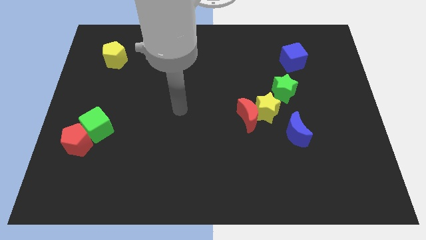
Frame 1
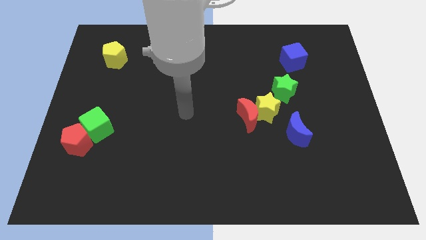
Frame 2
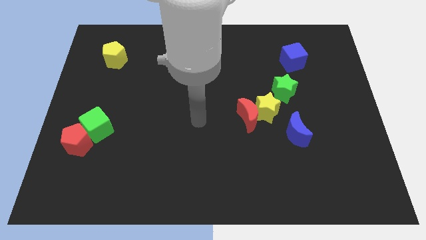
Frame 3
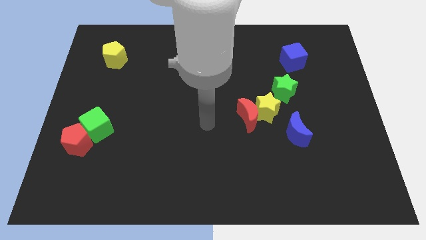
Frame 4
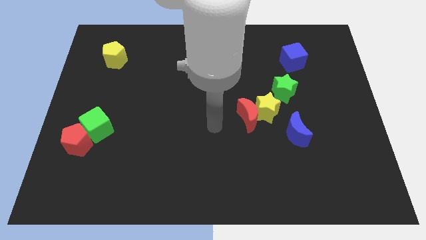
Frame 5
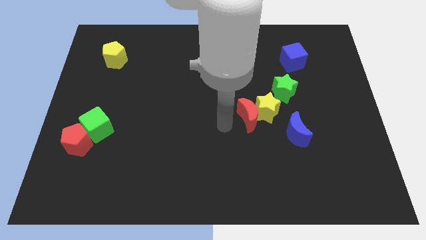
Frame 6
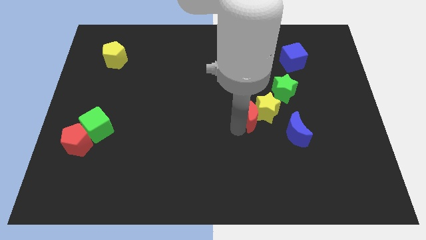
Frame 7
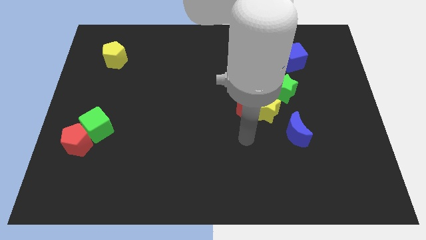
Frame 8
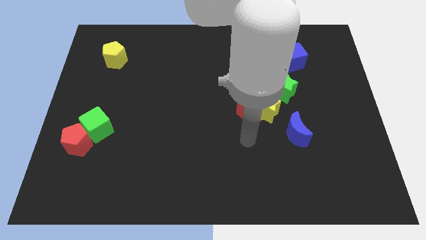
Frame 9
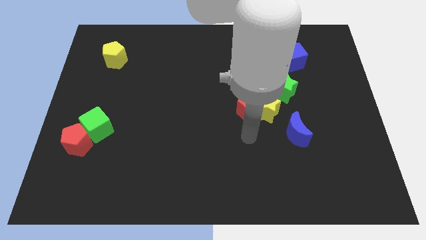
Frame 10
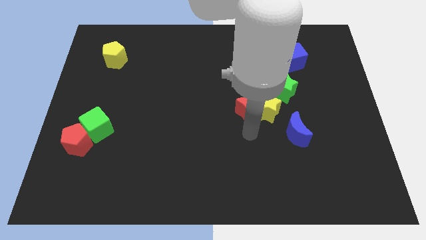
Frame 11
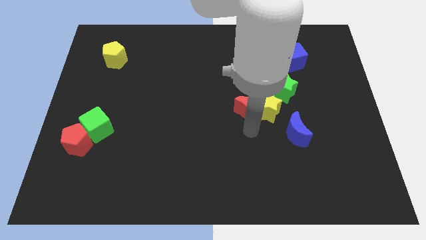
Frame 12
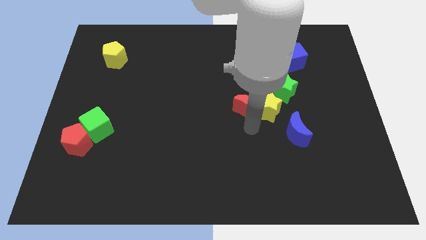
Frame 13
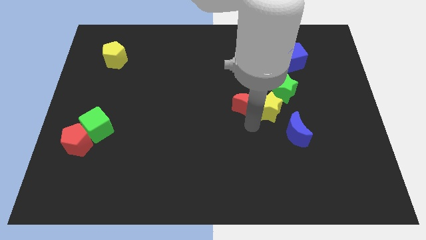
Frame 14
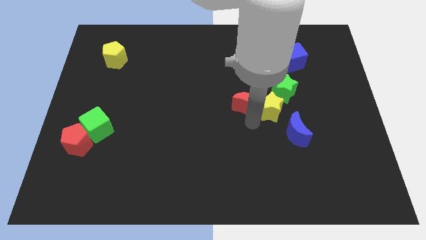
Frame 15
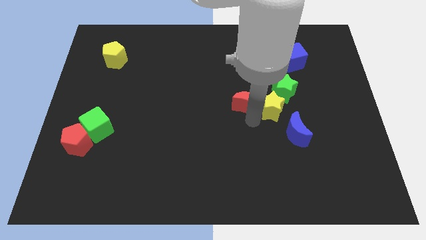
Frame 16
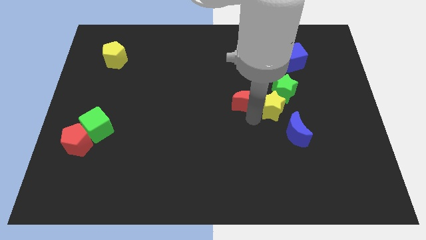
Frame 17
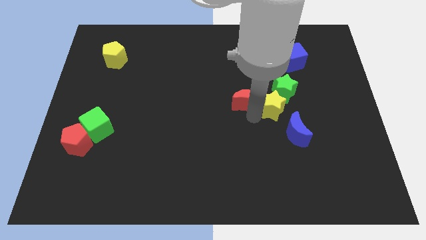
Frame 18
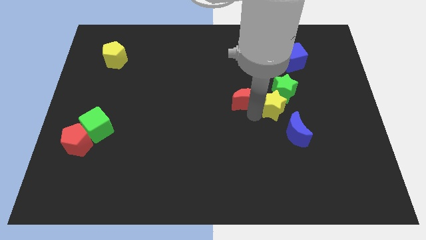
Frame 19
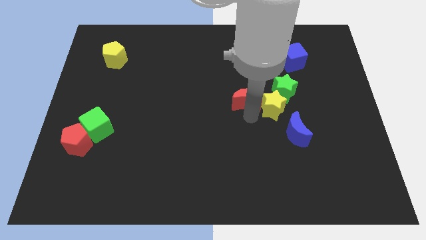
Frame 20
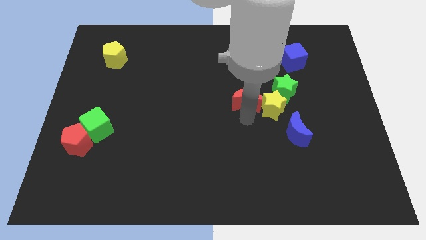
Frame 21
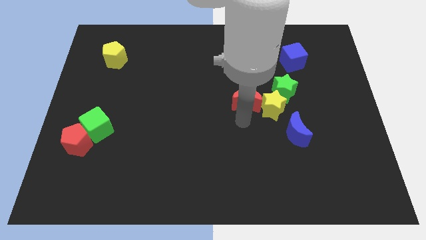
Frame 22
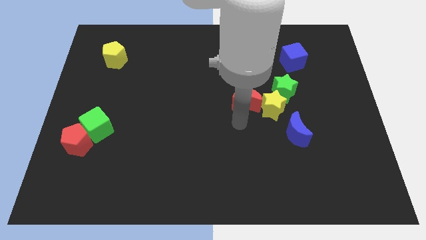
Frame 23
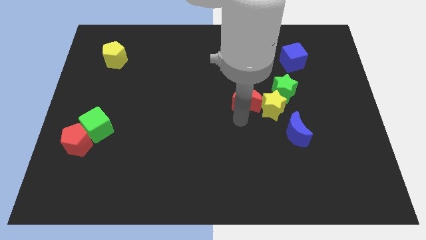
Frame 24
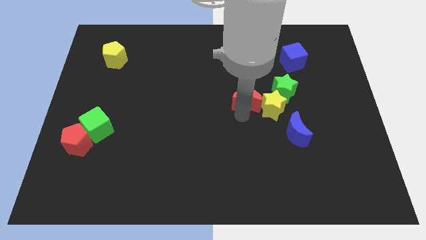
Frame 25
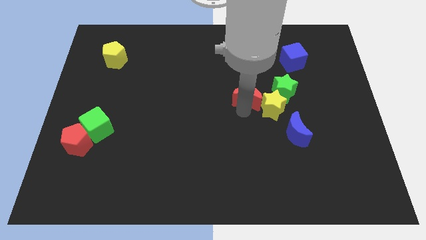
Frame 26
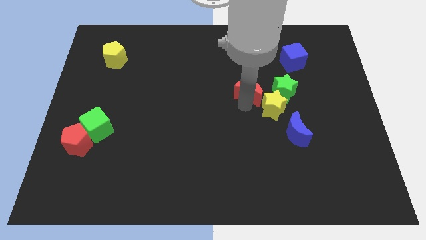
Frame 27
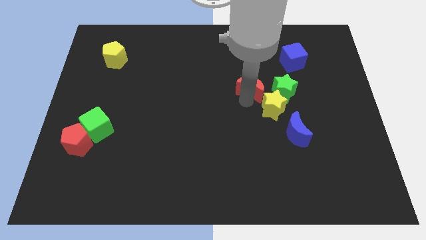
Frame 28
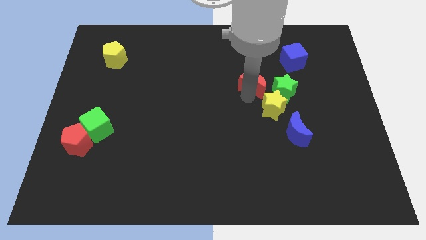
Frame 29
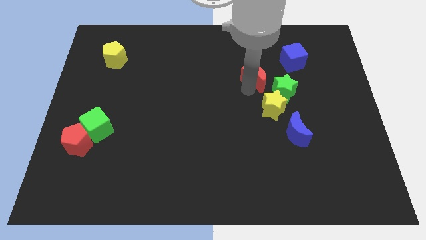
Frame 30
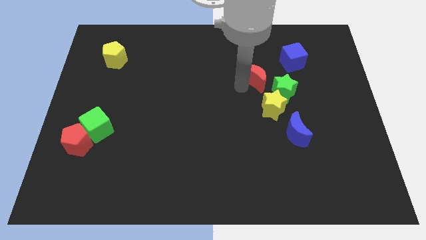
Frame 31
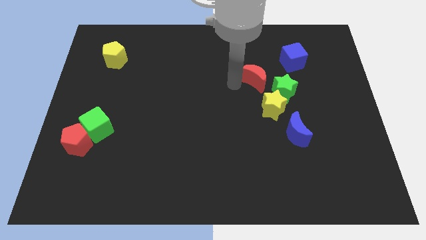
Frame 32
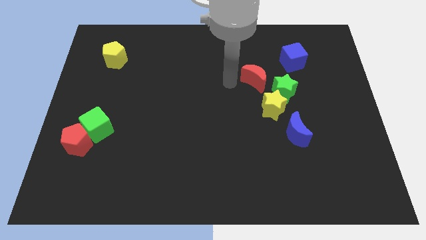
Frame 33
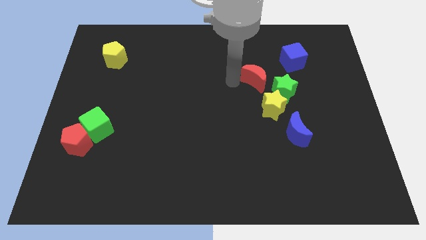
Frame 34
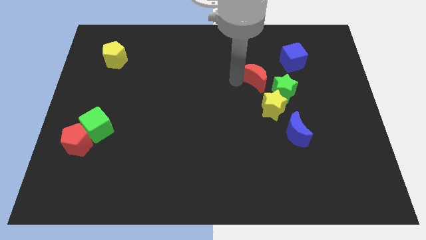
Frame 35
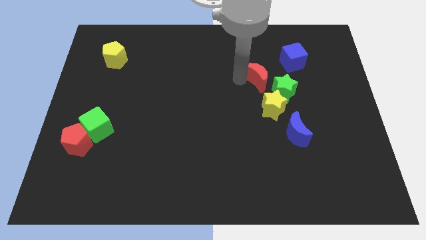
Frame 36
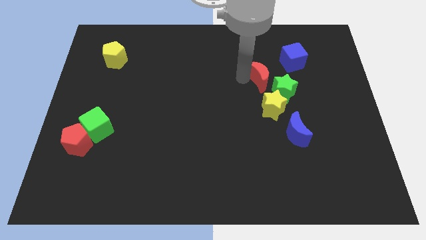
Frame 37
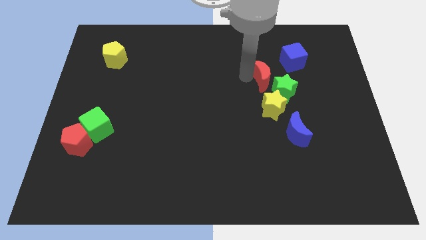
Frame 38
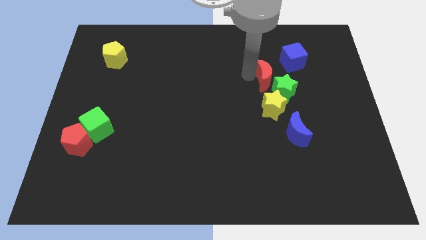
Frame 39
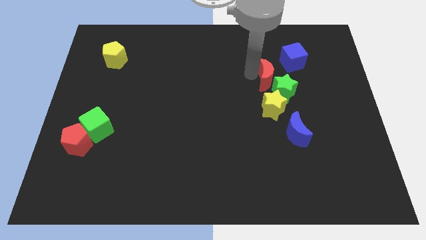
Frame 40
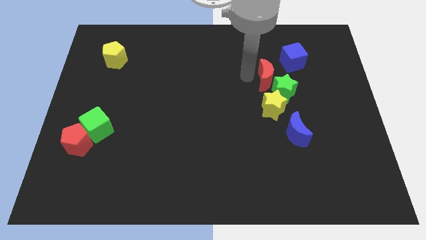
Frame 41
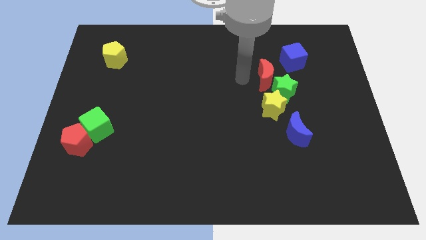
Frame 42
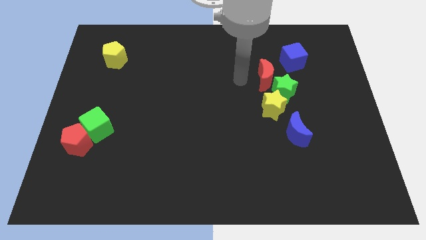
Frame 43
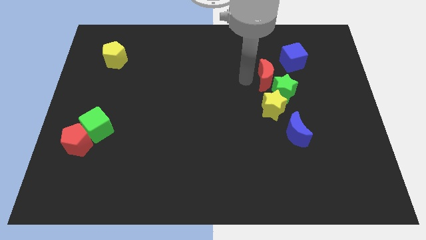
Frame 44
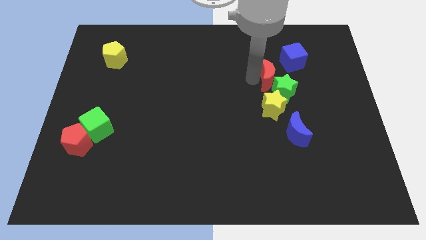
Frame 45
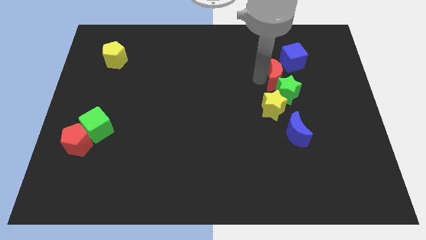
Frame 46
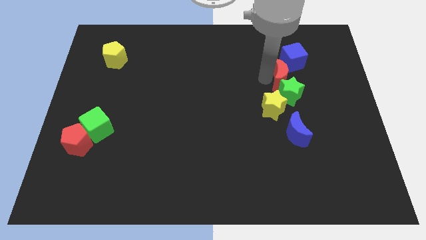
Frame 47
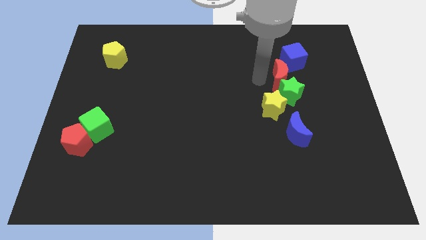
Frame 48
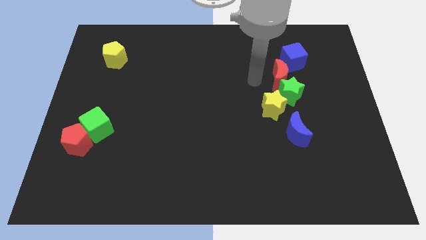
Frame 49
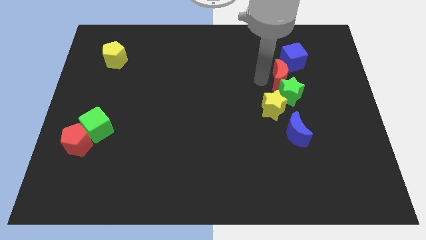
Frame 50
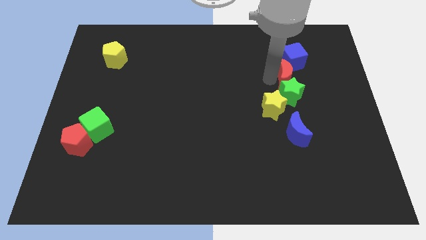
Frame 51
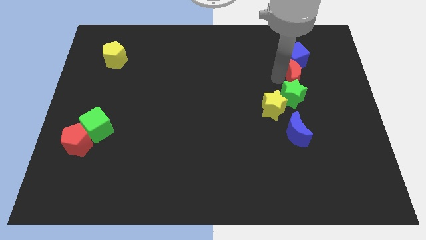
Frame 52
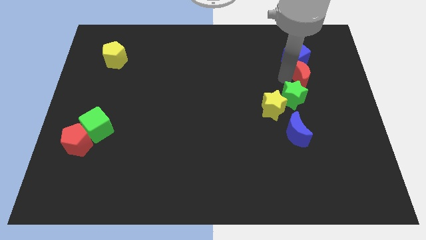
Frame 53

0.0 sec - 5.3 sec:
put the red moon to the bottom right side of the blue cube

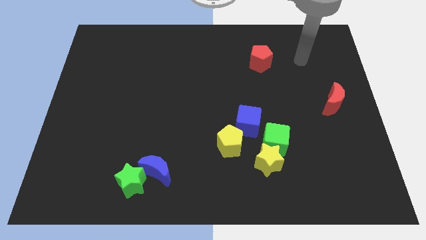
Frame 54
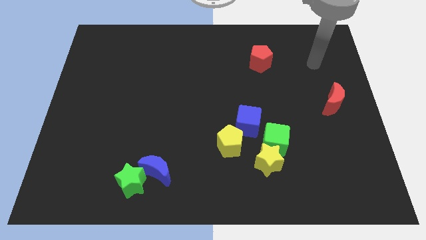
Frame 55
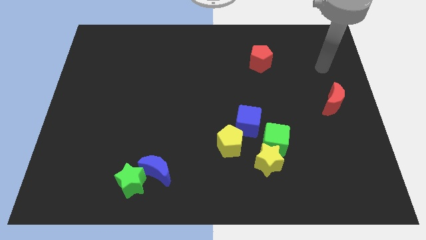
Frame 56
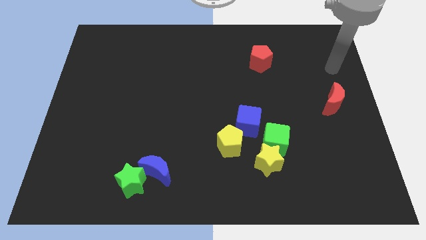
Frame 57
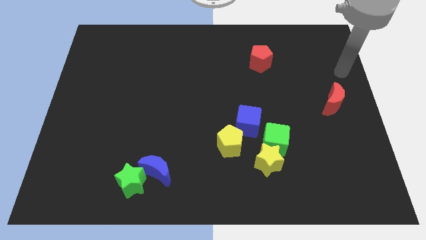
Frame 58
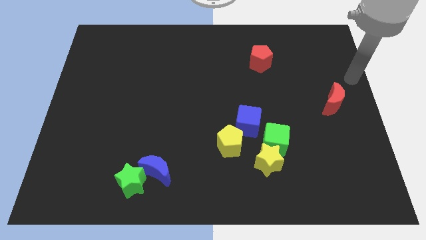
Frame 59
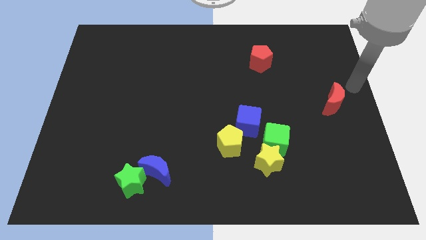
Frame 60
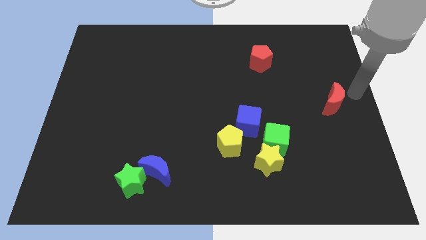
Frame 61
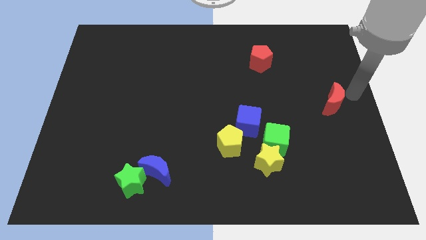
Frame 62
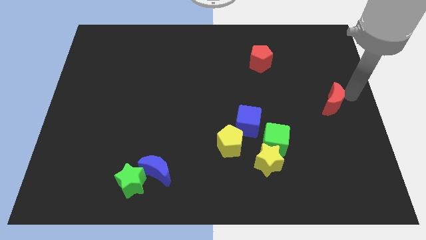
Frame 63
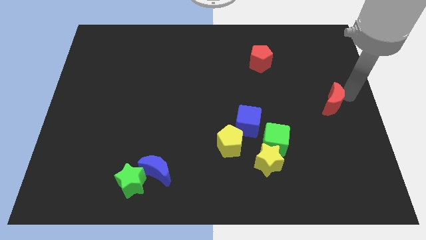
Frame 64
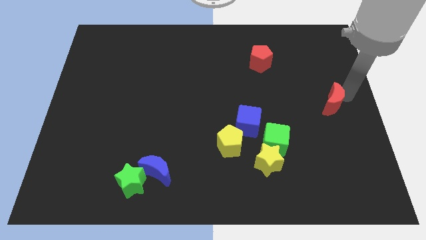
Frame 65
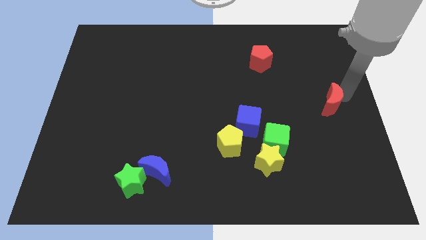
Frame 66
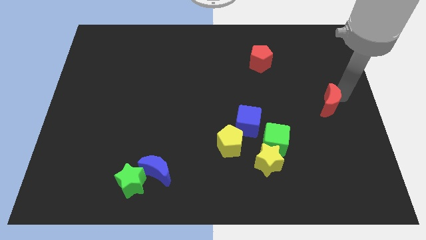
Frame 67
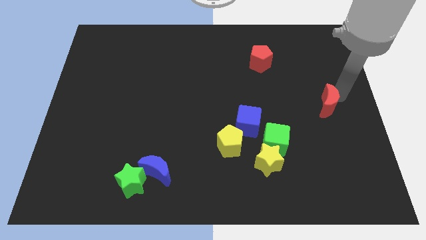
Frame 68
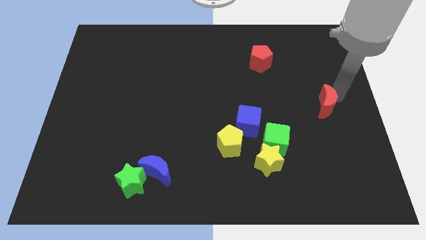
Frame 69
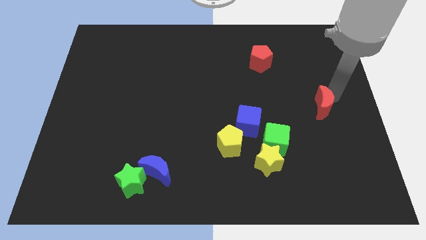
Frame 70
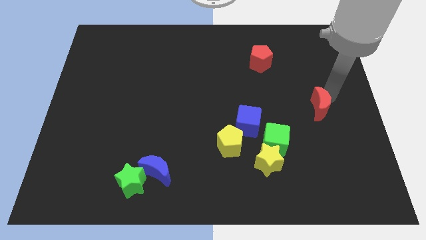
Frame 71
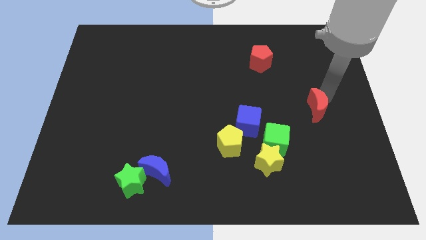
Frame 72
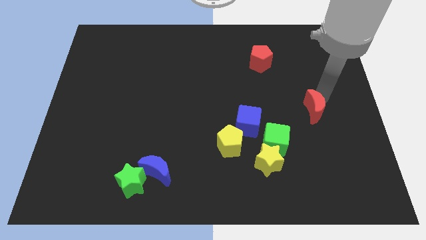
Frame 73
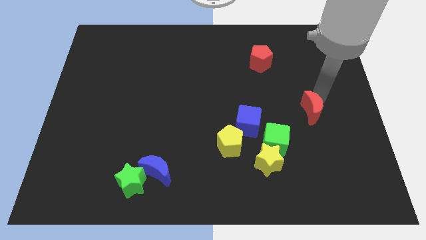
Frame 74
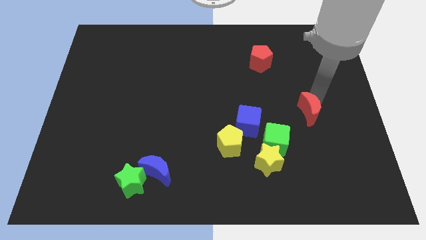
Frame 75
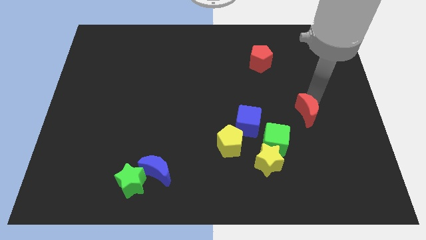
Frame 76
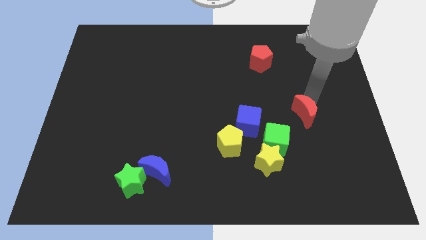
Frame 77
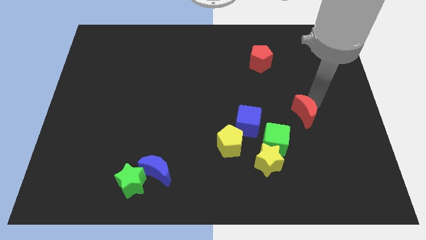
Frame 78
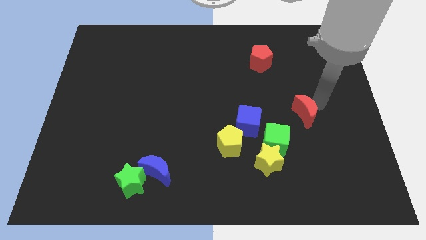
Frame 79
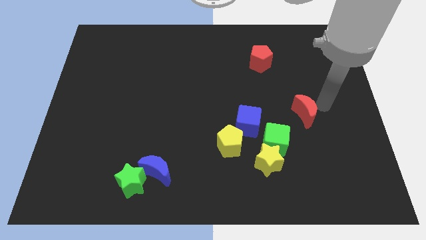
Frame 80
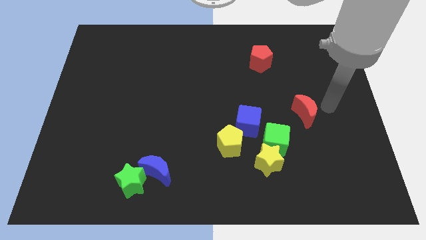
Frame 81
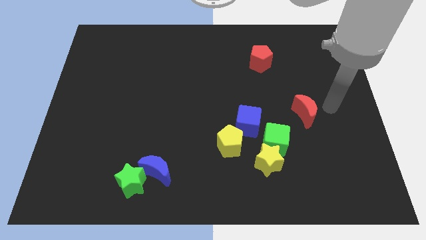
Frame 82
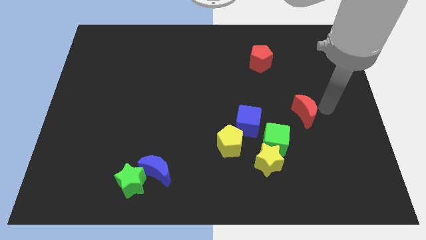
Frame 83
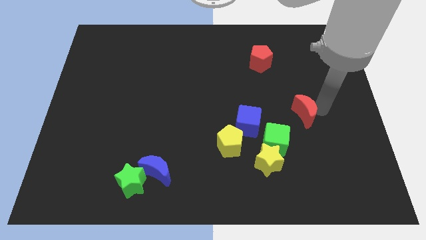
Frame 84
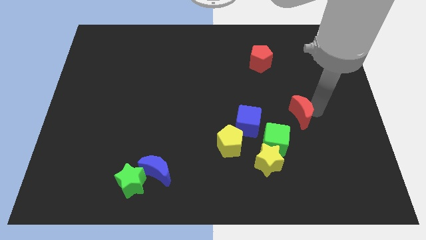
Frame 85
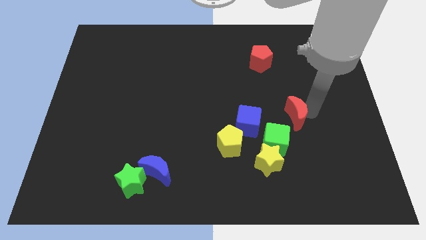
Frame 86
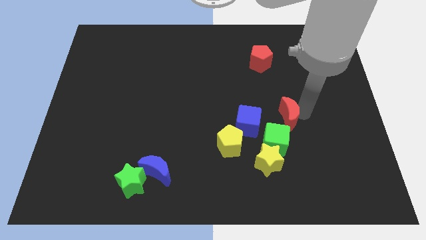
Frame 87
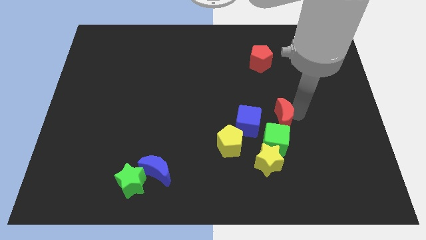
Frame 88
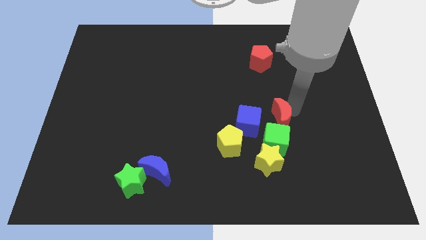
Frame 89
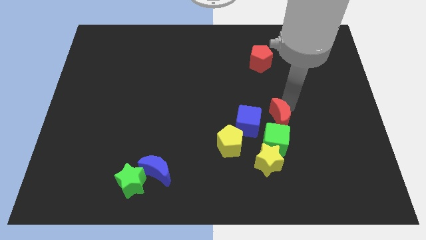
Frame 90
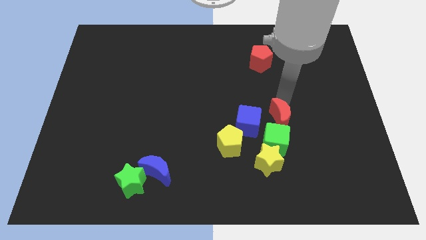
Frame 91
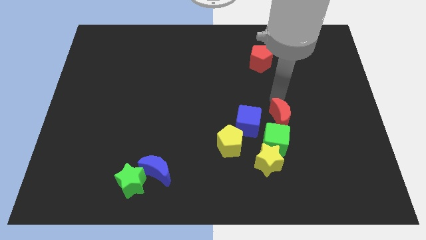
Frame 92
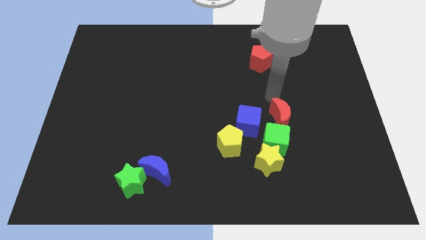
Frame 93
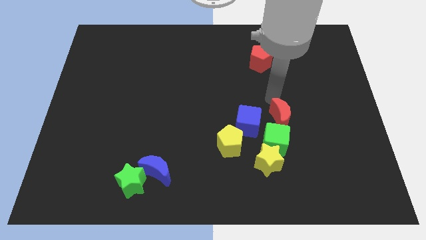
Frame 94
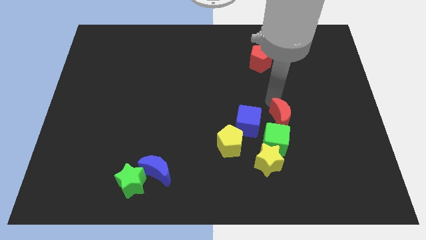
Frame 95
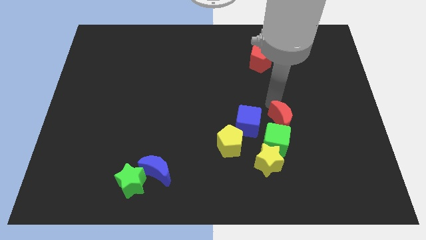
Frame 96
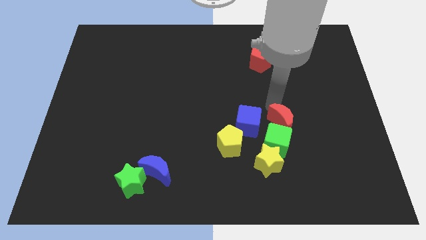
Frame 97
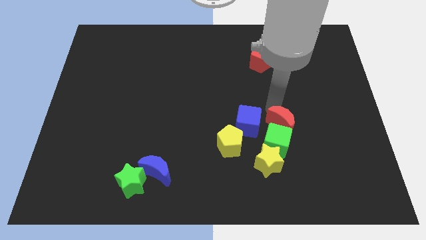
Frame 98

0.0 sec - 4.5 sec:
push the red moon diagonally up and to the right of the yellow star
